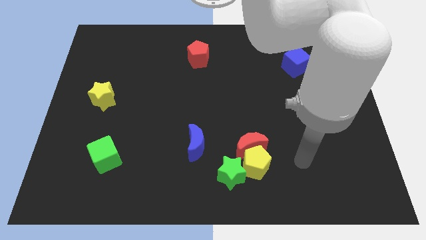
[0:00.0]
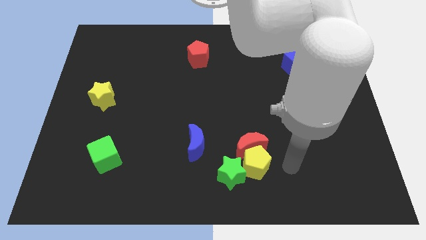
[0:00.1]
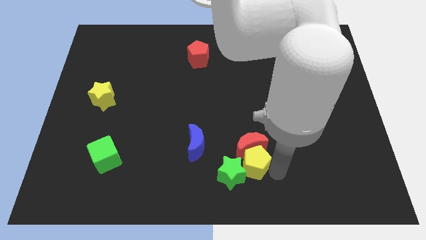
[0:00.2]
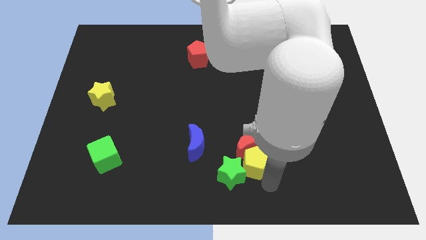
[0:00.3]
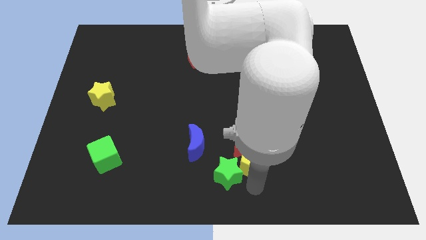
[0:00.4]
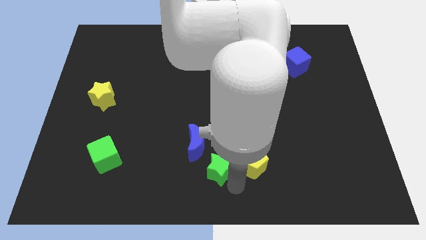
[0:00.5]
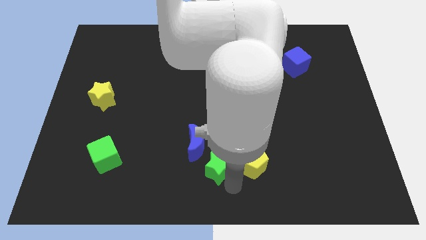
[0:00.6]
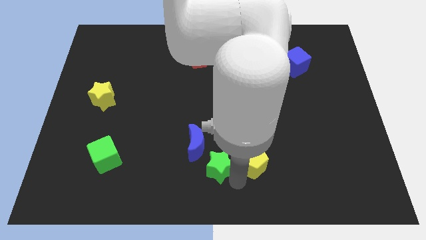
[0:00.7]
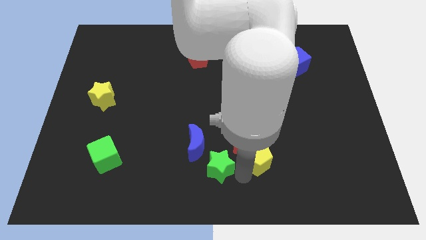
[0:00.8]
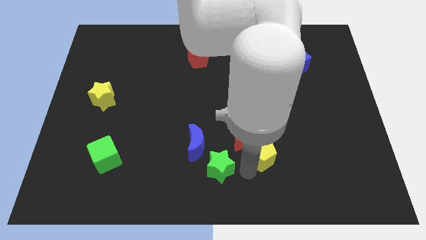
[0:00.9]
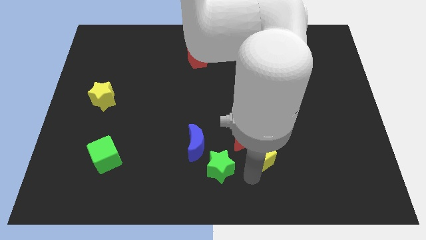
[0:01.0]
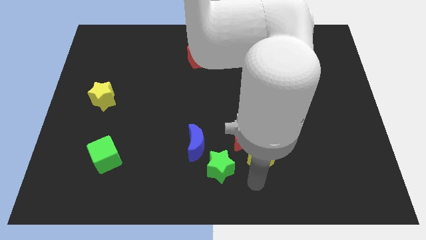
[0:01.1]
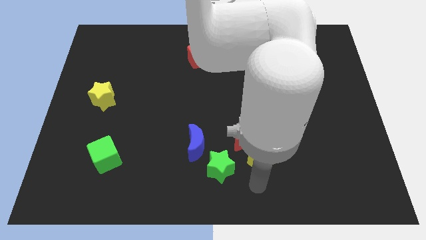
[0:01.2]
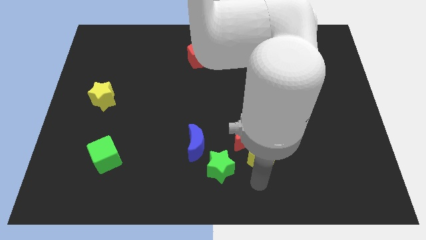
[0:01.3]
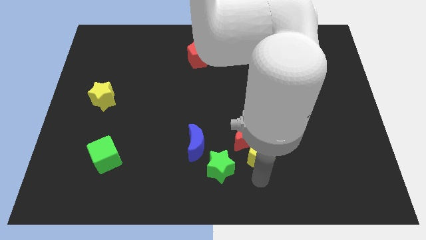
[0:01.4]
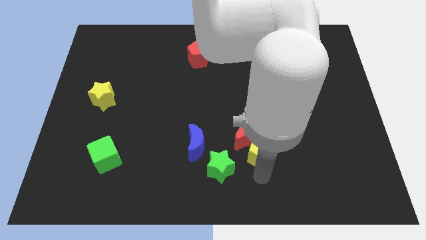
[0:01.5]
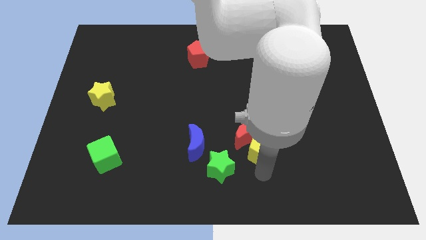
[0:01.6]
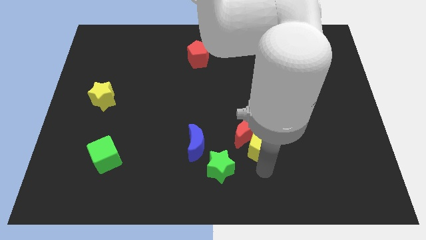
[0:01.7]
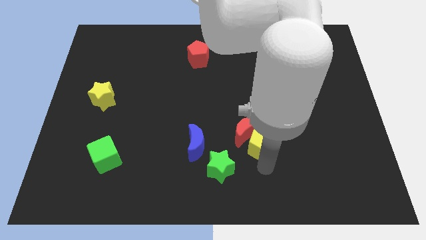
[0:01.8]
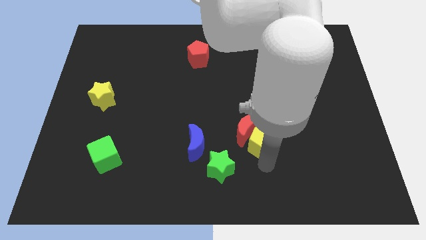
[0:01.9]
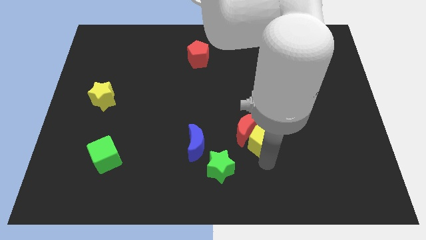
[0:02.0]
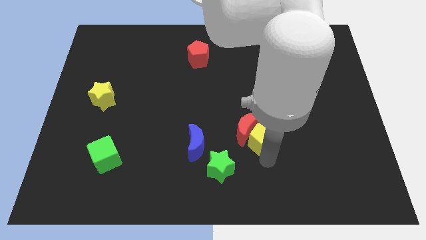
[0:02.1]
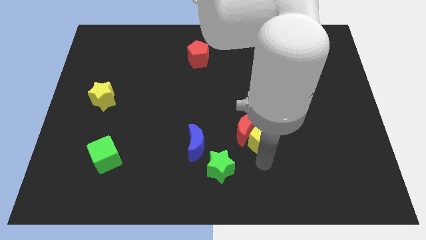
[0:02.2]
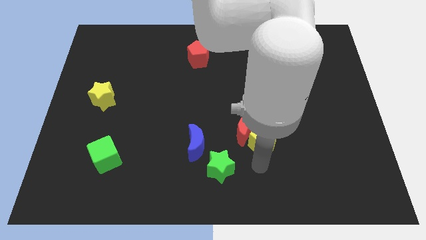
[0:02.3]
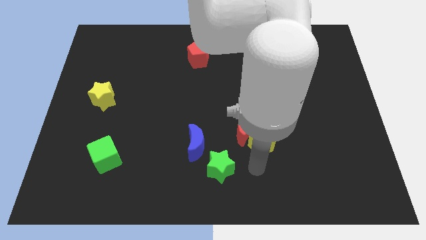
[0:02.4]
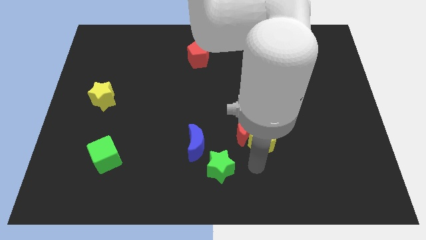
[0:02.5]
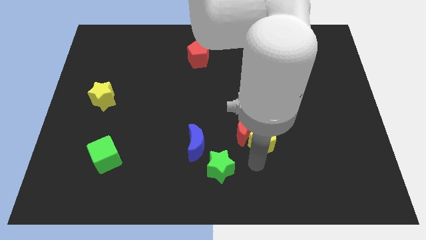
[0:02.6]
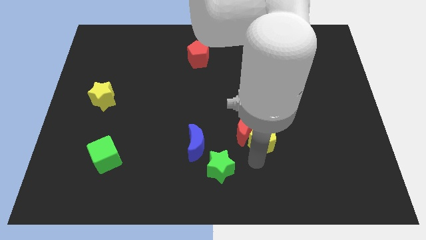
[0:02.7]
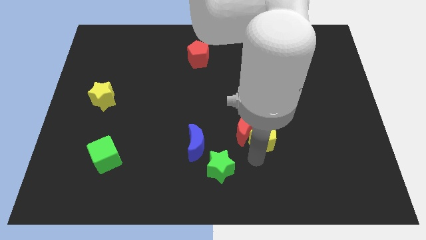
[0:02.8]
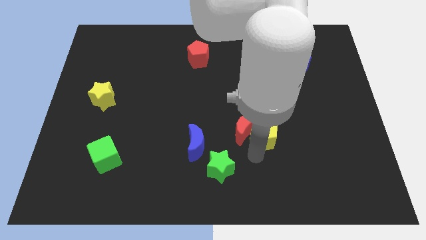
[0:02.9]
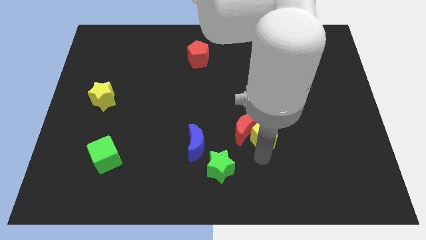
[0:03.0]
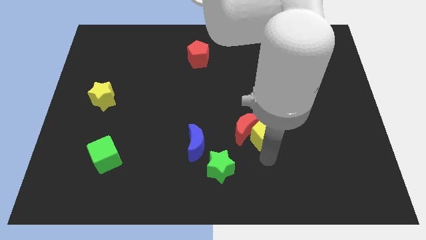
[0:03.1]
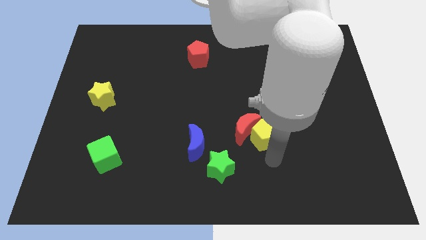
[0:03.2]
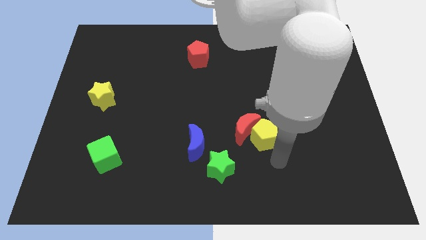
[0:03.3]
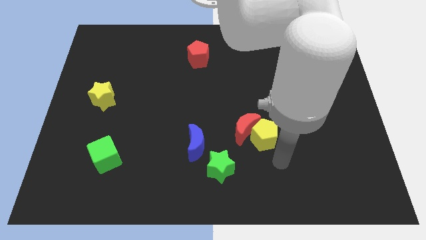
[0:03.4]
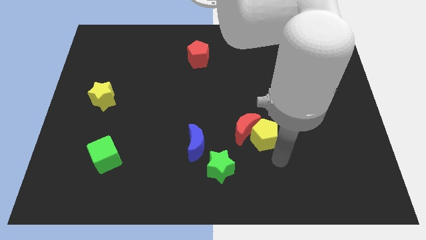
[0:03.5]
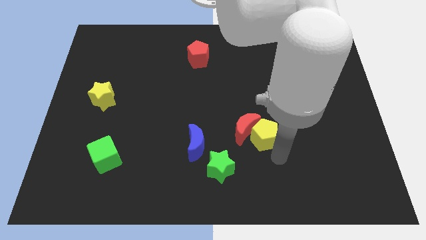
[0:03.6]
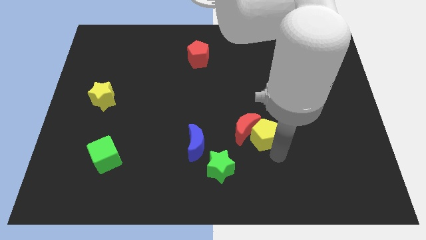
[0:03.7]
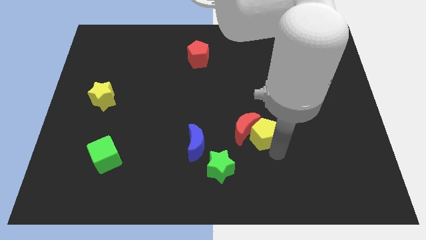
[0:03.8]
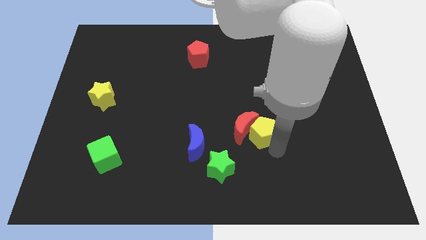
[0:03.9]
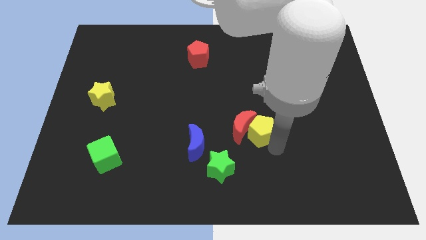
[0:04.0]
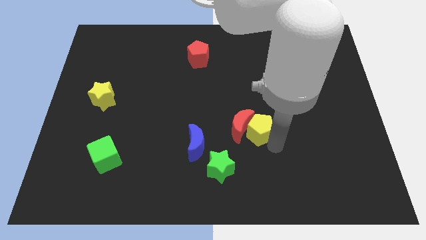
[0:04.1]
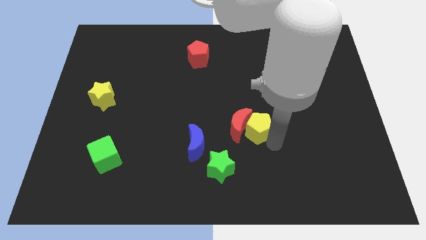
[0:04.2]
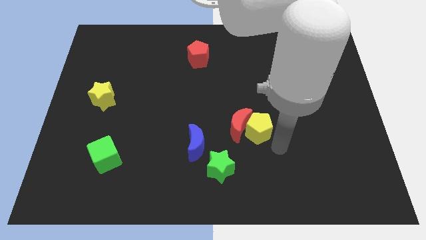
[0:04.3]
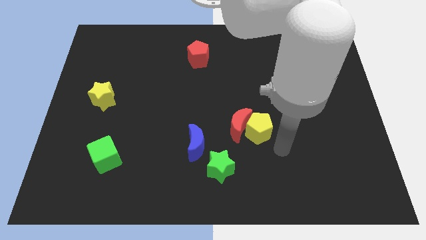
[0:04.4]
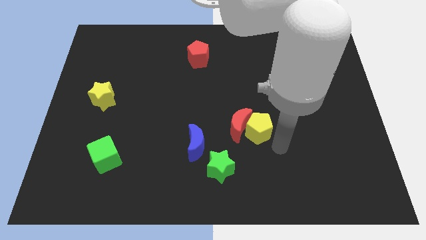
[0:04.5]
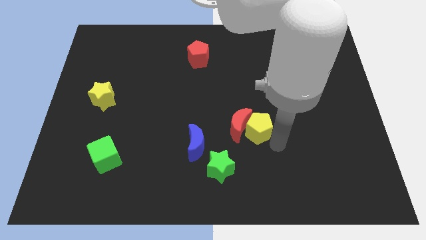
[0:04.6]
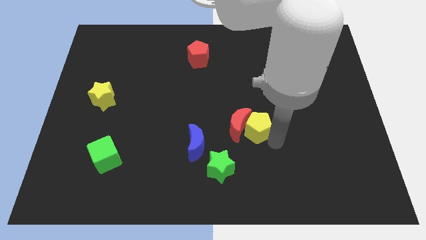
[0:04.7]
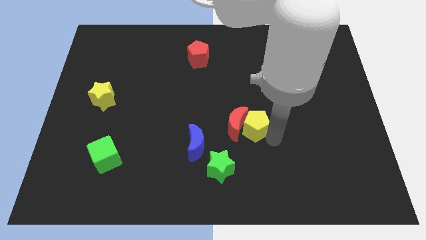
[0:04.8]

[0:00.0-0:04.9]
slide the yellow pentagon to the center

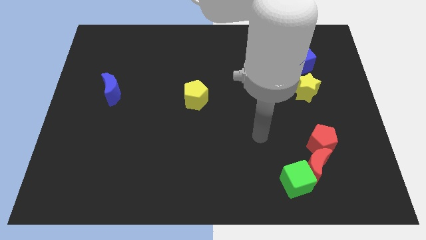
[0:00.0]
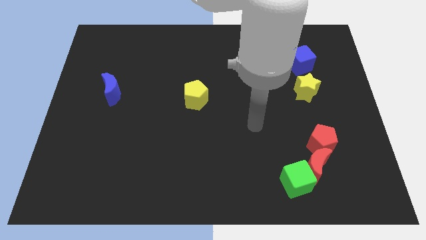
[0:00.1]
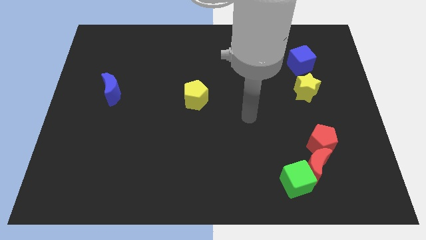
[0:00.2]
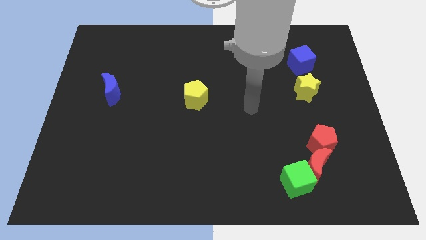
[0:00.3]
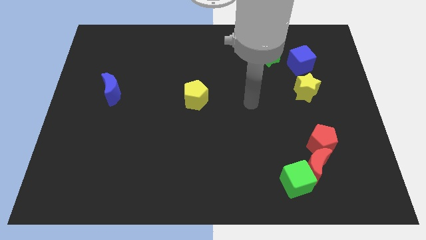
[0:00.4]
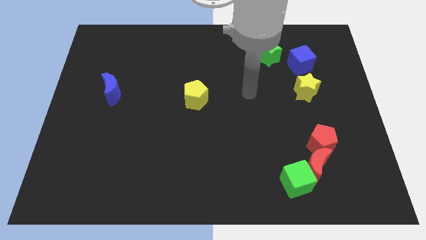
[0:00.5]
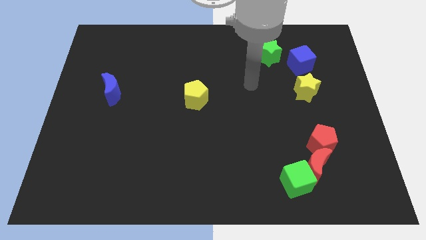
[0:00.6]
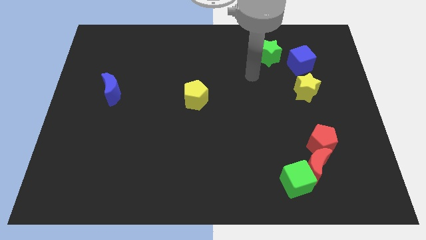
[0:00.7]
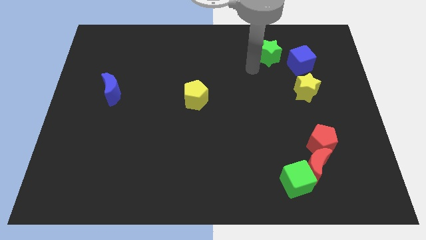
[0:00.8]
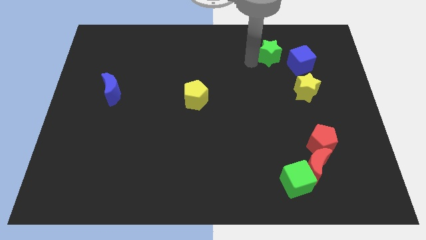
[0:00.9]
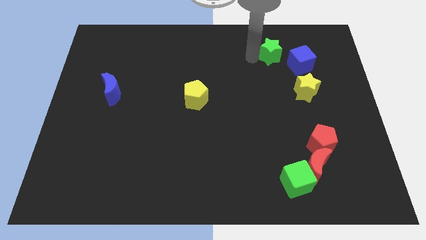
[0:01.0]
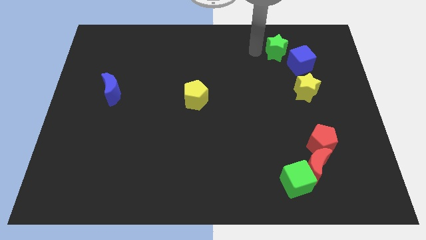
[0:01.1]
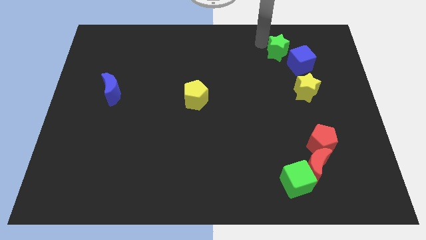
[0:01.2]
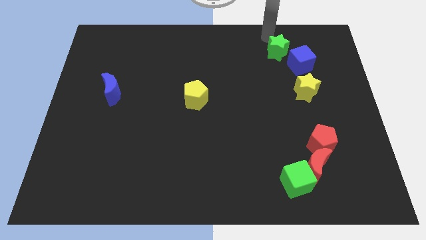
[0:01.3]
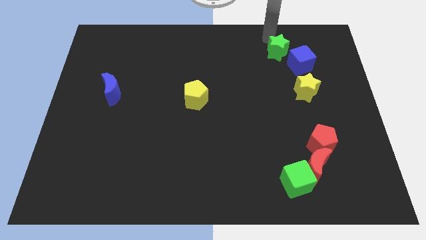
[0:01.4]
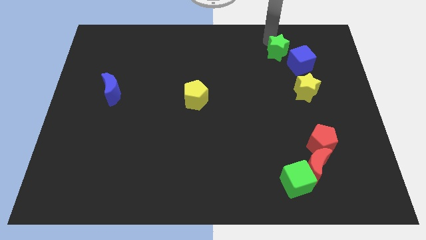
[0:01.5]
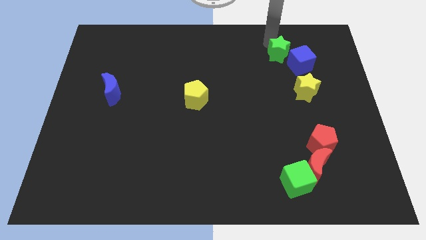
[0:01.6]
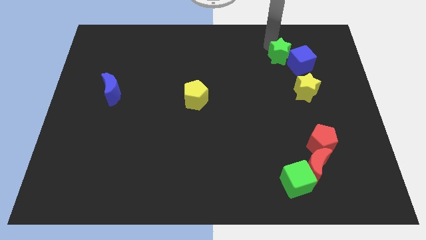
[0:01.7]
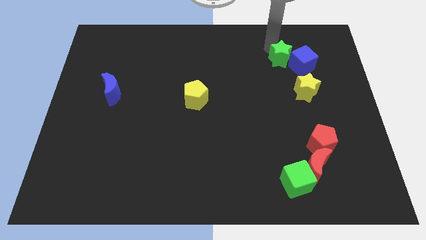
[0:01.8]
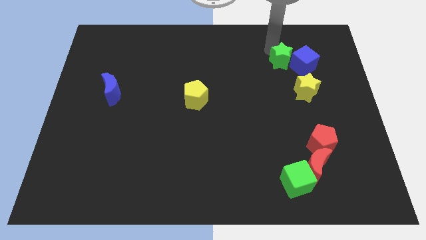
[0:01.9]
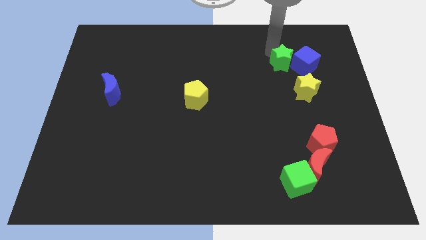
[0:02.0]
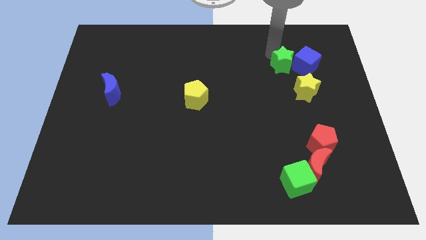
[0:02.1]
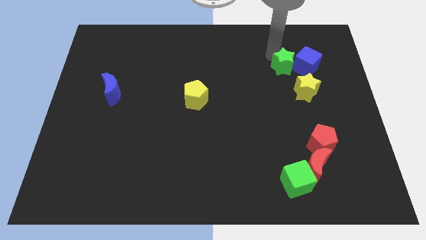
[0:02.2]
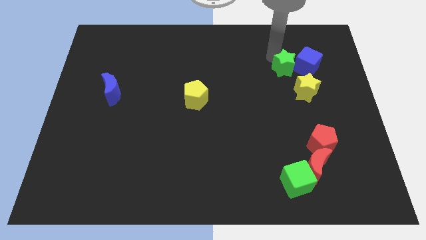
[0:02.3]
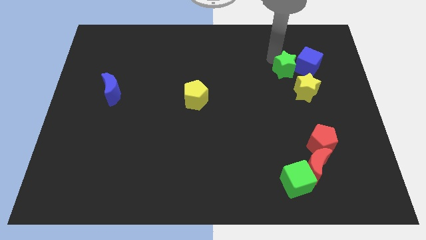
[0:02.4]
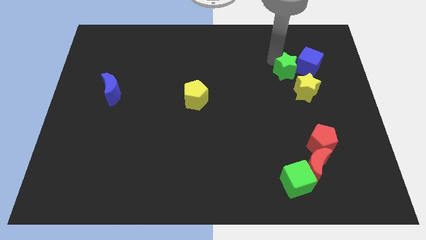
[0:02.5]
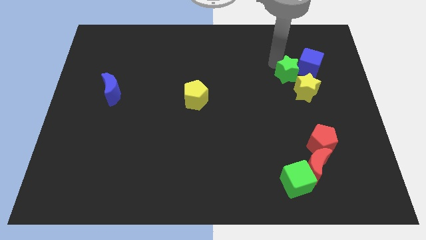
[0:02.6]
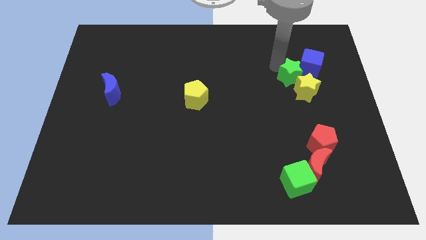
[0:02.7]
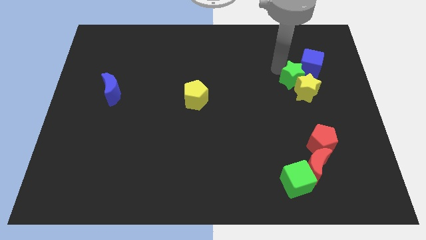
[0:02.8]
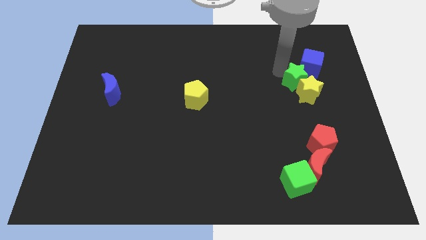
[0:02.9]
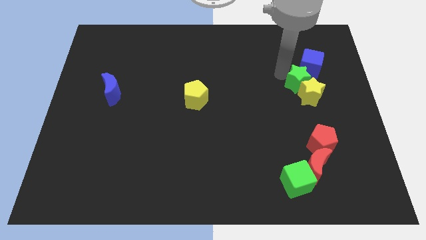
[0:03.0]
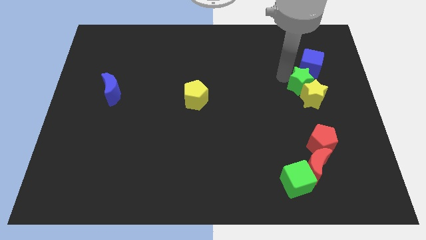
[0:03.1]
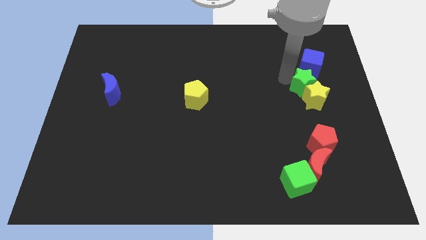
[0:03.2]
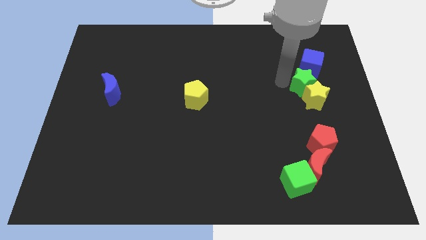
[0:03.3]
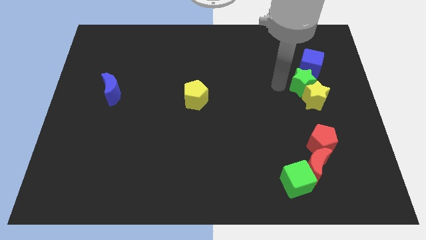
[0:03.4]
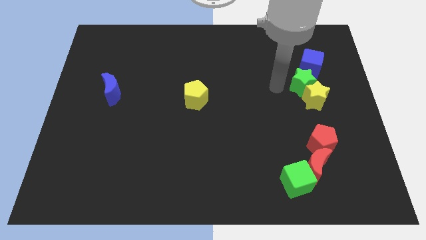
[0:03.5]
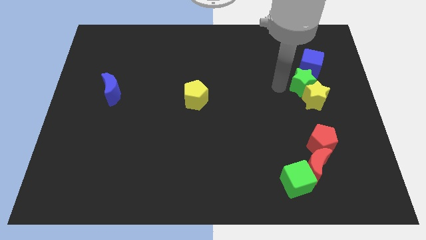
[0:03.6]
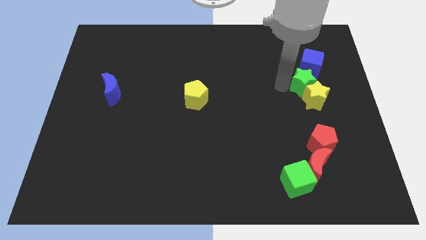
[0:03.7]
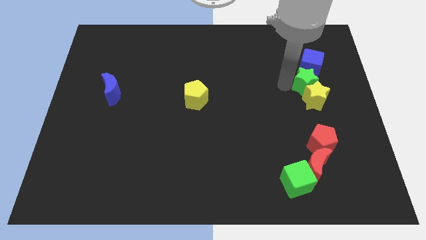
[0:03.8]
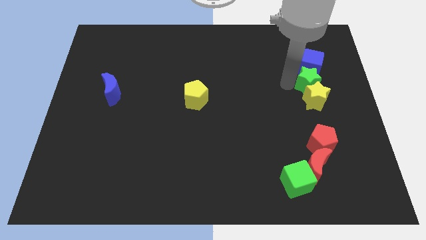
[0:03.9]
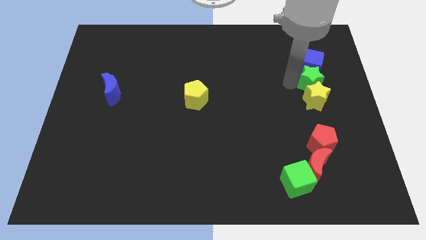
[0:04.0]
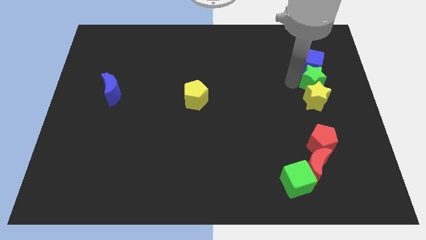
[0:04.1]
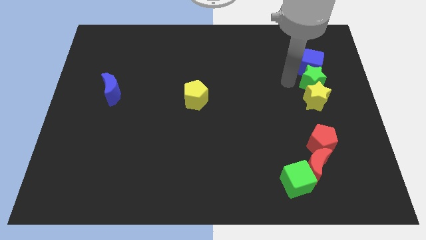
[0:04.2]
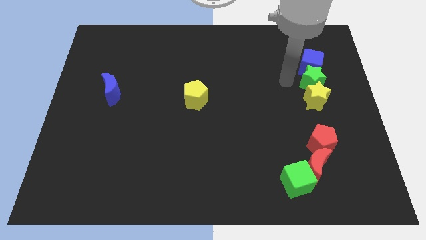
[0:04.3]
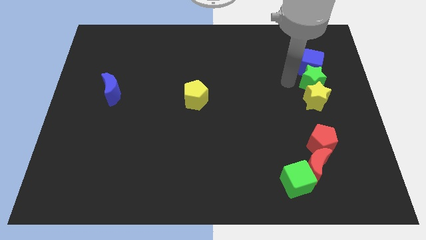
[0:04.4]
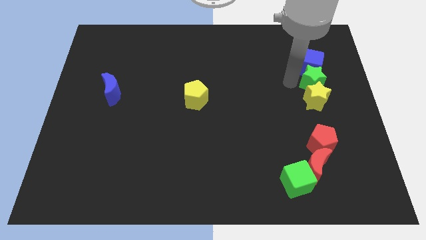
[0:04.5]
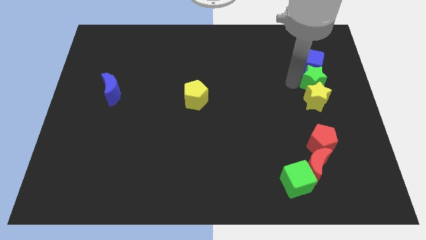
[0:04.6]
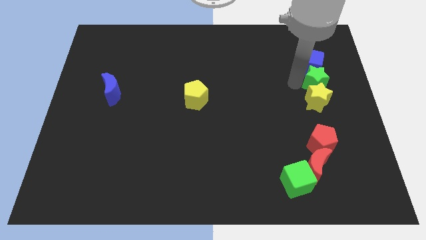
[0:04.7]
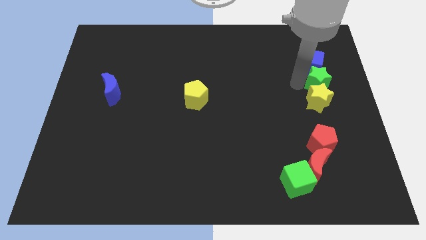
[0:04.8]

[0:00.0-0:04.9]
slide the green star to the right side
